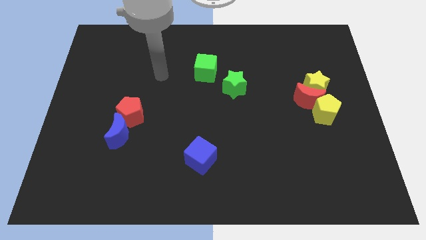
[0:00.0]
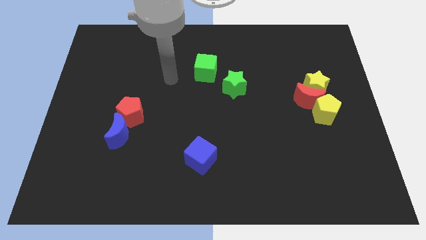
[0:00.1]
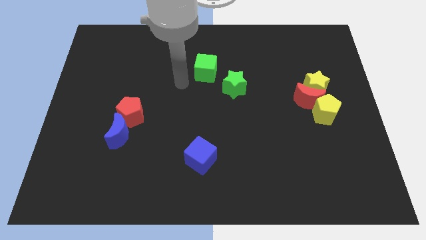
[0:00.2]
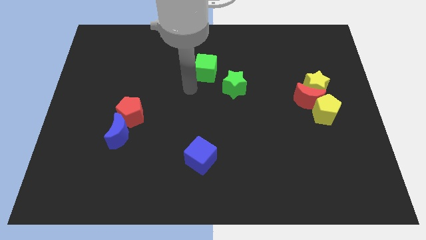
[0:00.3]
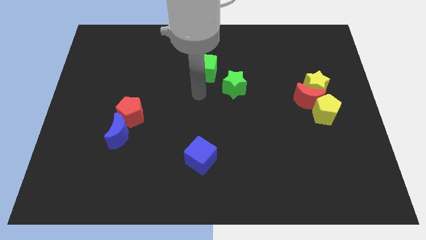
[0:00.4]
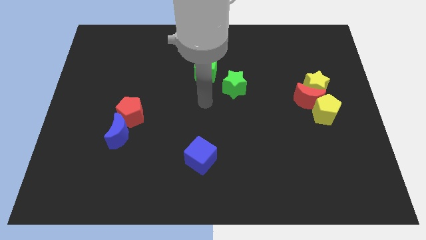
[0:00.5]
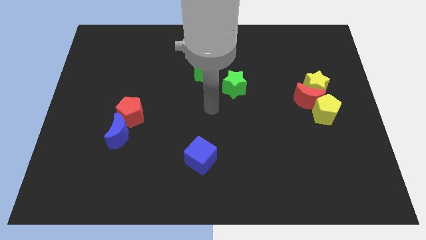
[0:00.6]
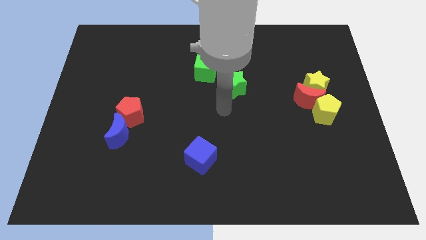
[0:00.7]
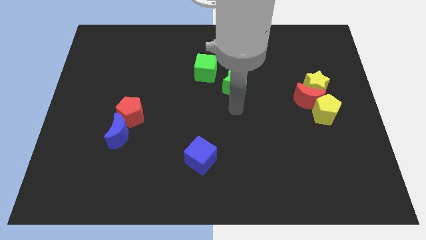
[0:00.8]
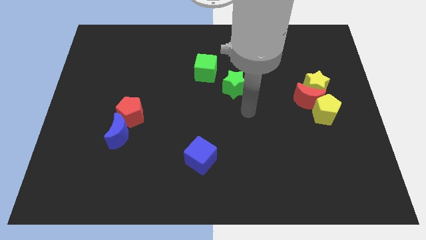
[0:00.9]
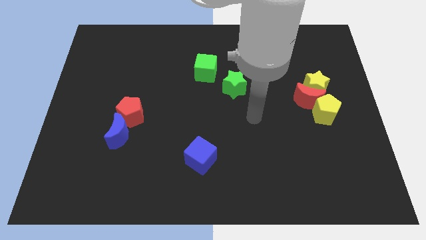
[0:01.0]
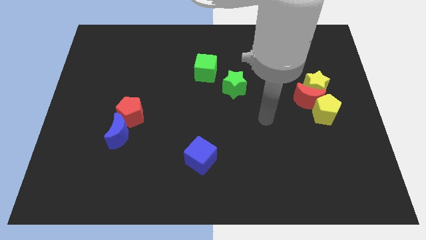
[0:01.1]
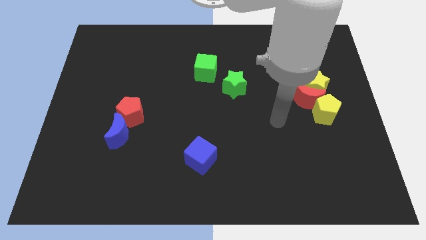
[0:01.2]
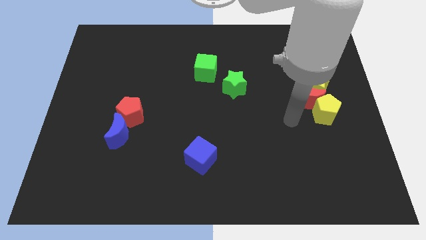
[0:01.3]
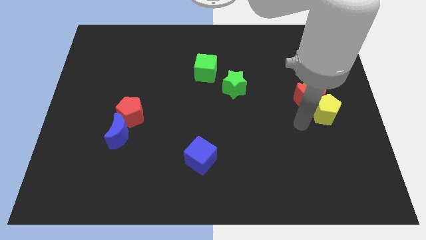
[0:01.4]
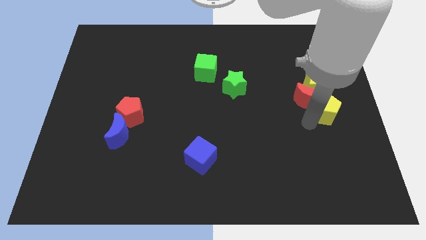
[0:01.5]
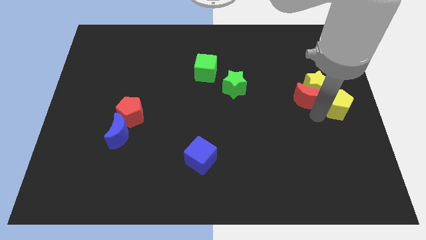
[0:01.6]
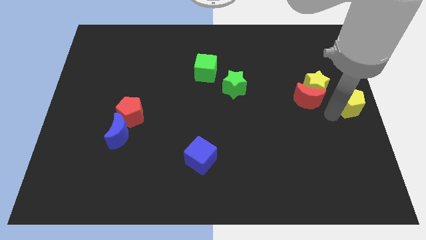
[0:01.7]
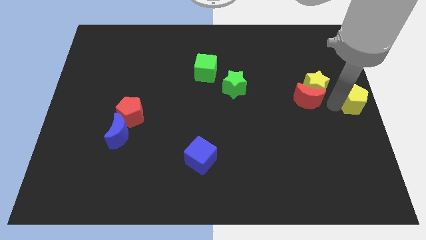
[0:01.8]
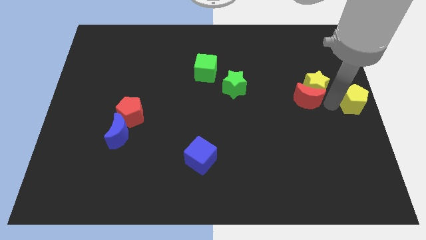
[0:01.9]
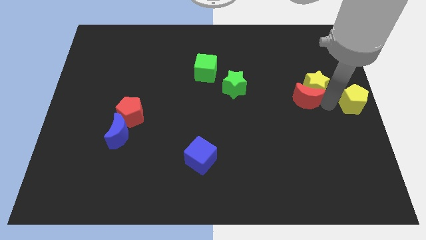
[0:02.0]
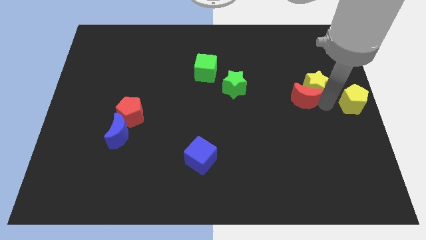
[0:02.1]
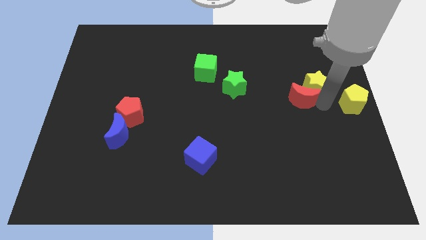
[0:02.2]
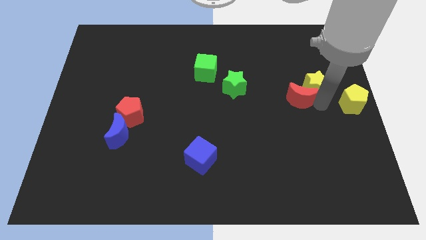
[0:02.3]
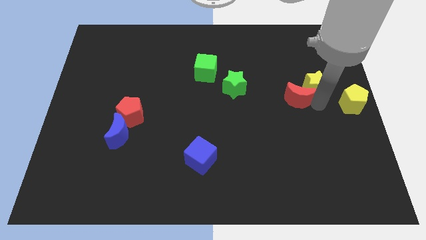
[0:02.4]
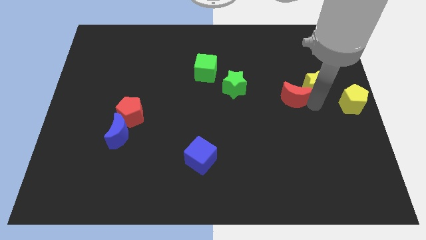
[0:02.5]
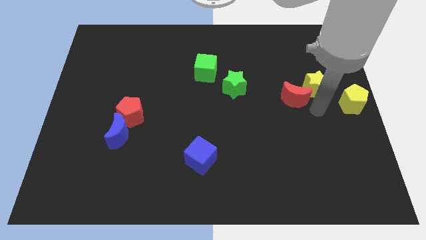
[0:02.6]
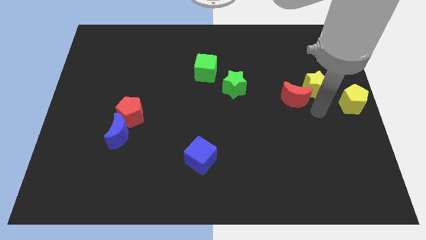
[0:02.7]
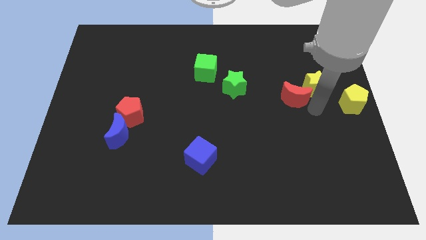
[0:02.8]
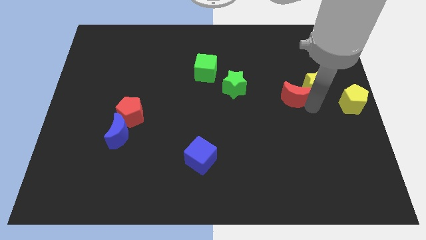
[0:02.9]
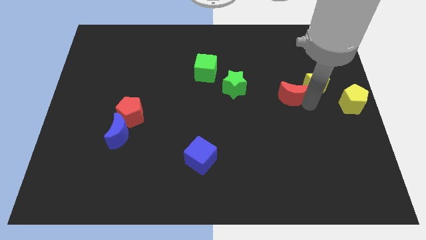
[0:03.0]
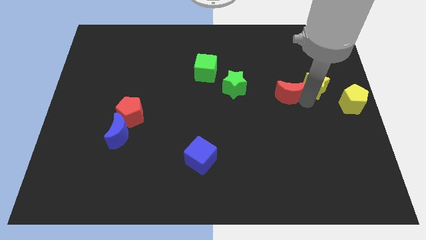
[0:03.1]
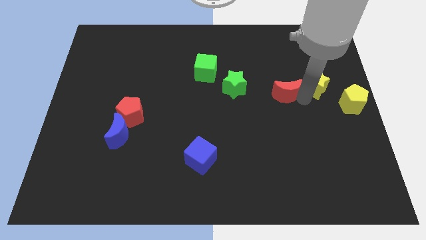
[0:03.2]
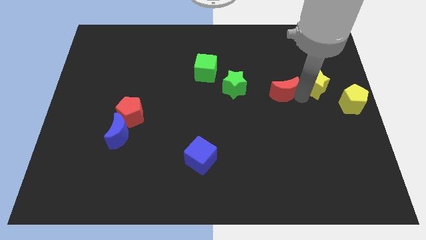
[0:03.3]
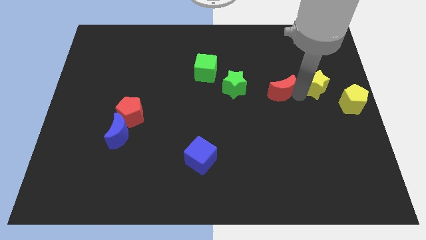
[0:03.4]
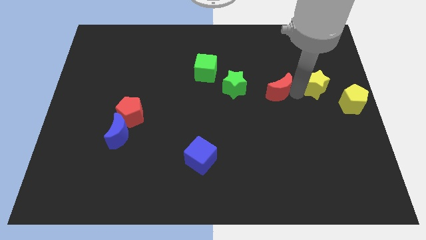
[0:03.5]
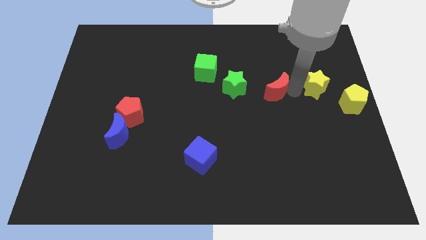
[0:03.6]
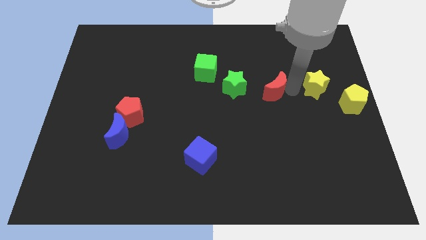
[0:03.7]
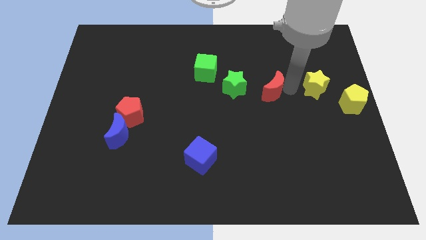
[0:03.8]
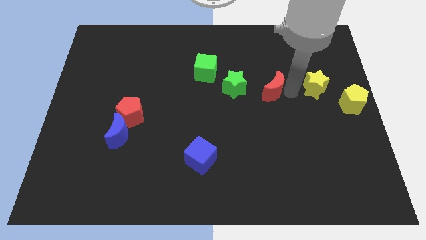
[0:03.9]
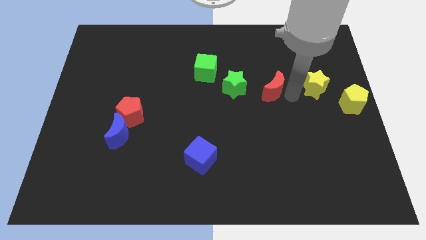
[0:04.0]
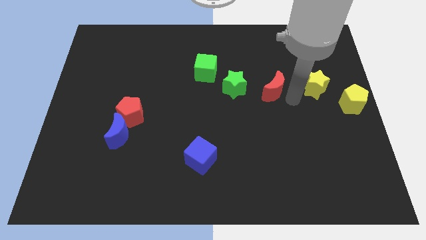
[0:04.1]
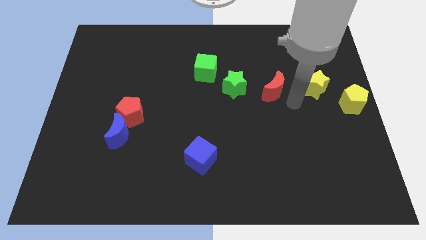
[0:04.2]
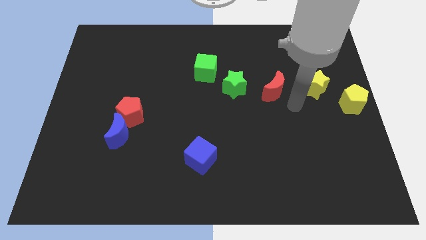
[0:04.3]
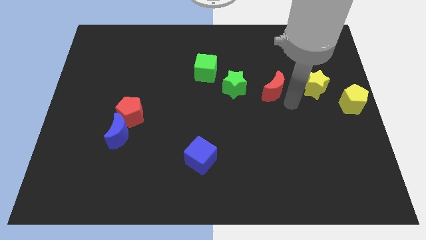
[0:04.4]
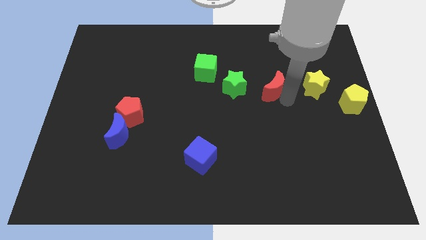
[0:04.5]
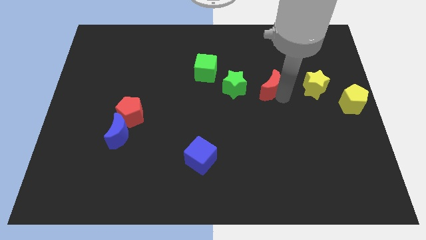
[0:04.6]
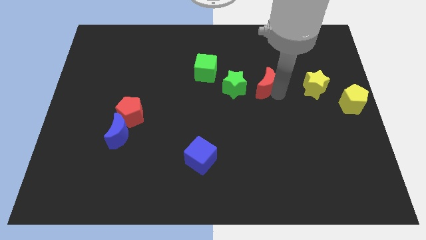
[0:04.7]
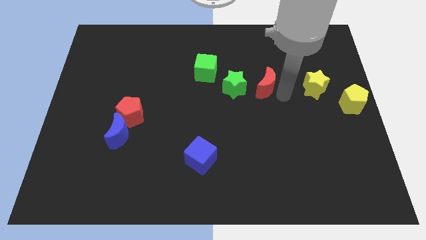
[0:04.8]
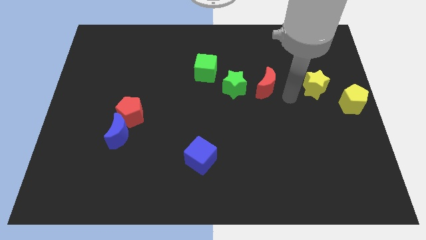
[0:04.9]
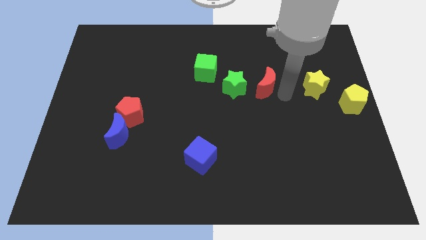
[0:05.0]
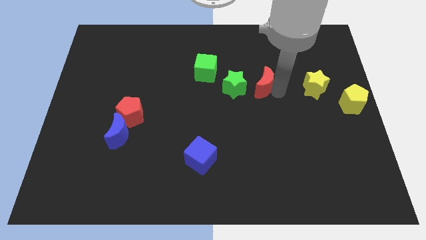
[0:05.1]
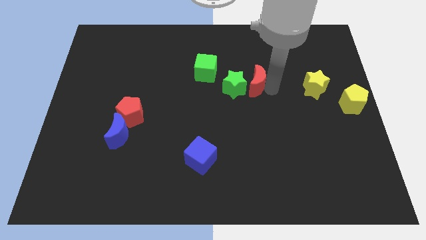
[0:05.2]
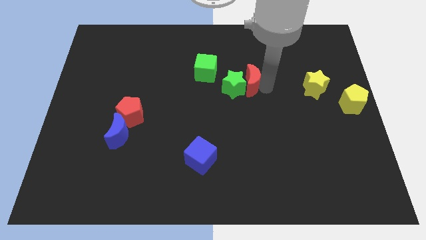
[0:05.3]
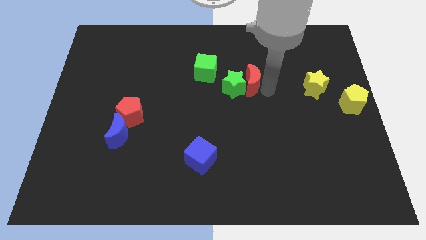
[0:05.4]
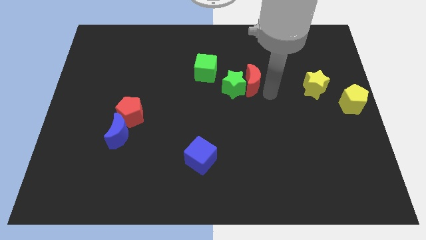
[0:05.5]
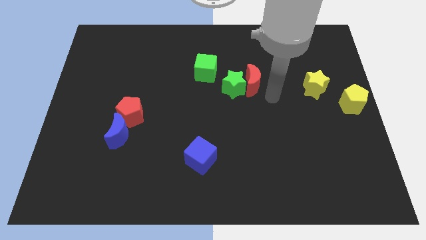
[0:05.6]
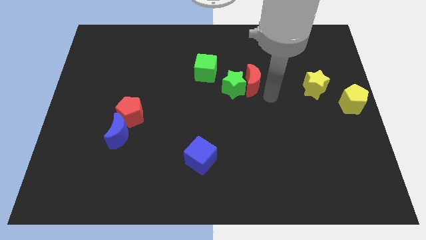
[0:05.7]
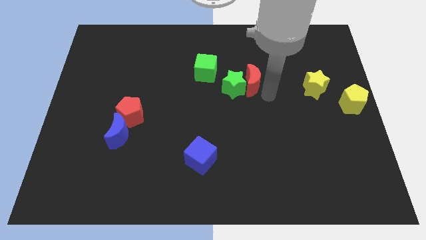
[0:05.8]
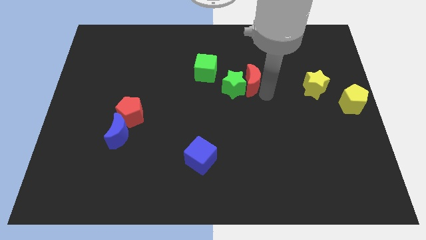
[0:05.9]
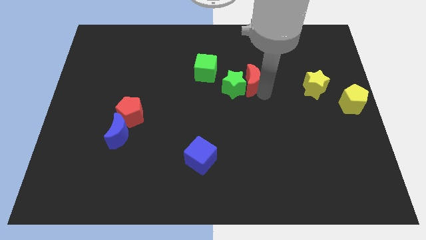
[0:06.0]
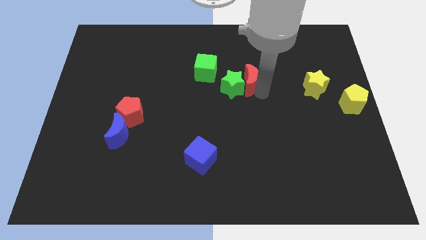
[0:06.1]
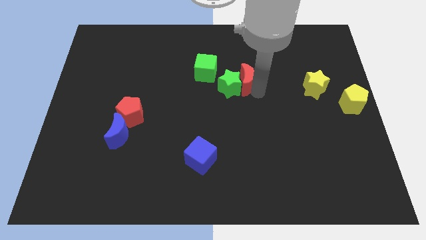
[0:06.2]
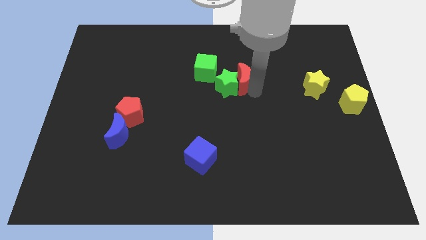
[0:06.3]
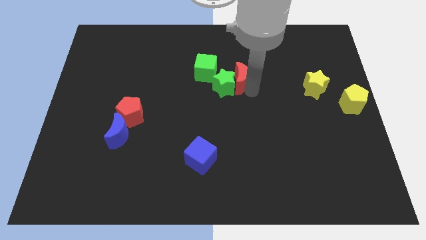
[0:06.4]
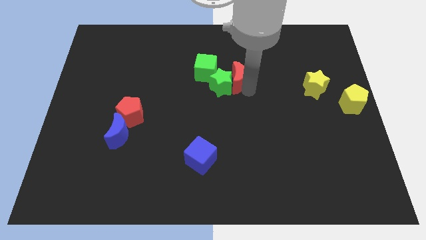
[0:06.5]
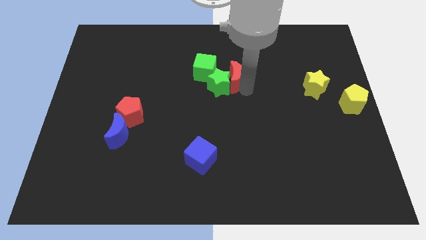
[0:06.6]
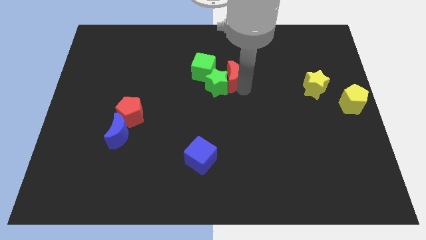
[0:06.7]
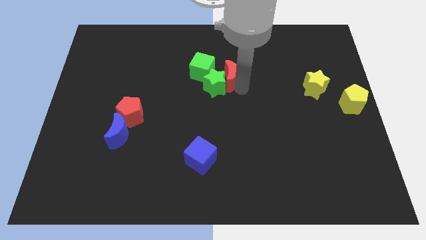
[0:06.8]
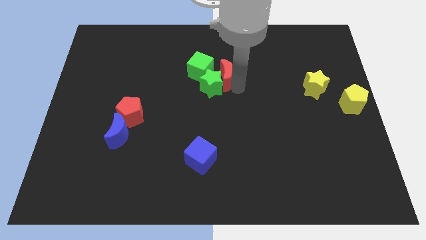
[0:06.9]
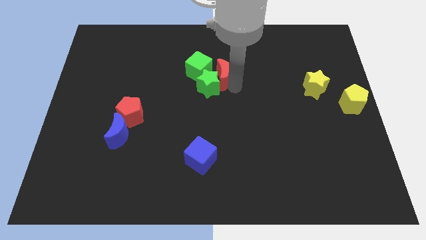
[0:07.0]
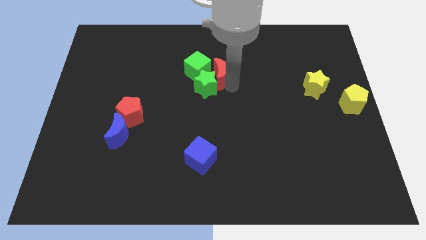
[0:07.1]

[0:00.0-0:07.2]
put the red moon next to the green cube
